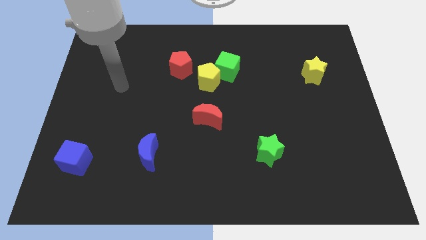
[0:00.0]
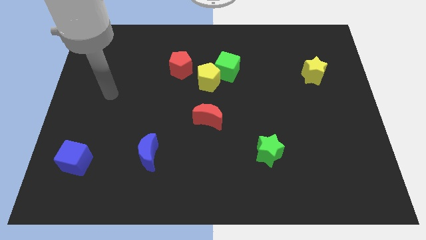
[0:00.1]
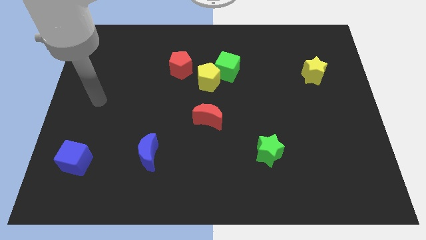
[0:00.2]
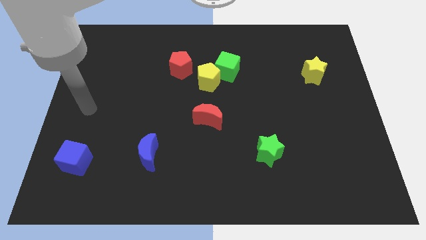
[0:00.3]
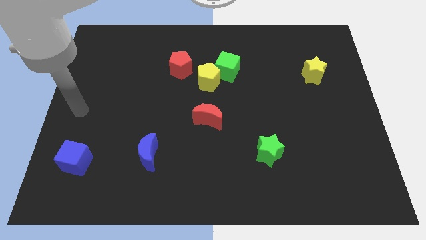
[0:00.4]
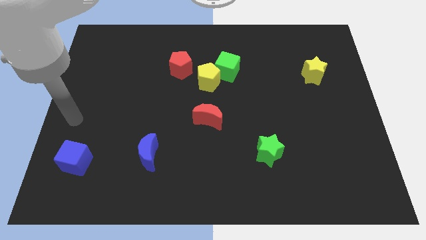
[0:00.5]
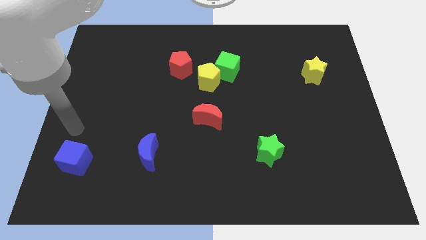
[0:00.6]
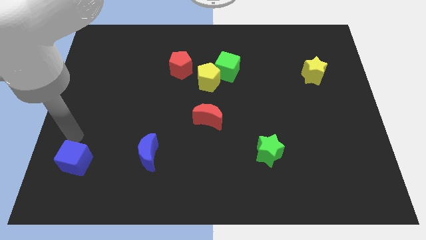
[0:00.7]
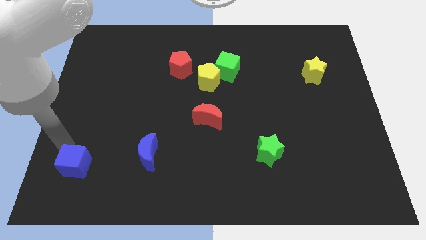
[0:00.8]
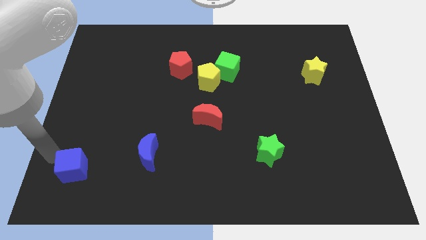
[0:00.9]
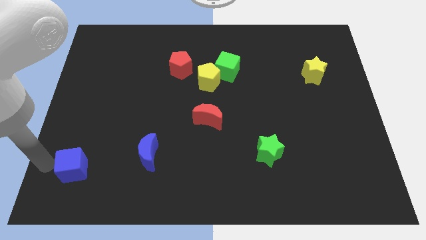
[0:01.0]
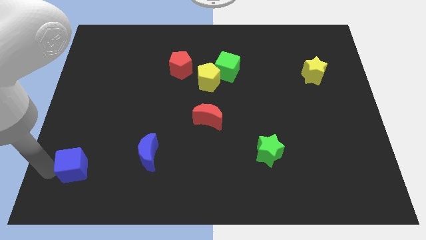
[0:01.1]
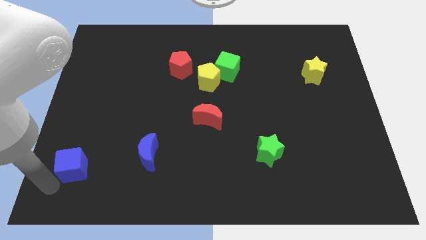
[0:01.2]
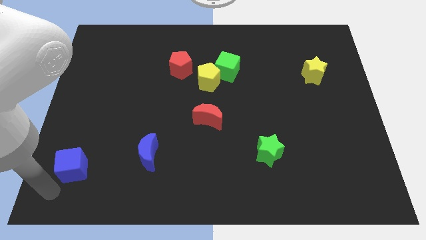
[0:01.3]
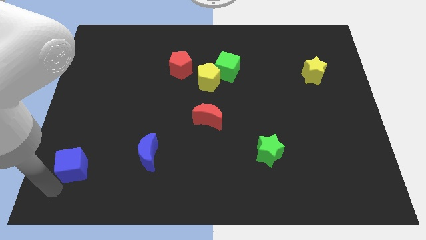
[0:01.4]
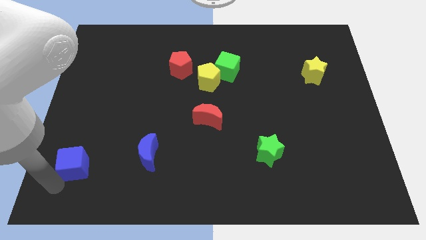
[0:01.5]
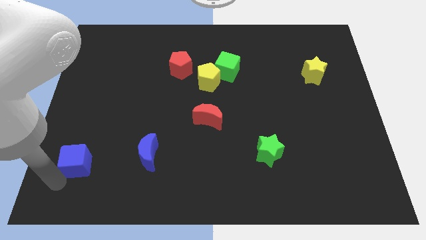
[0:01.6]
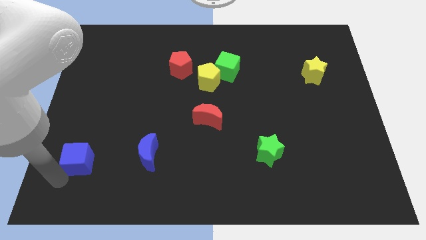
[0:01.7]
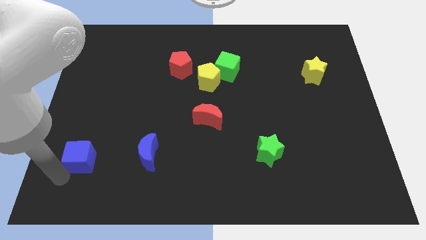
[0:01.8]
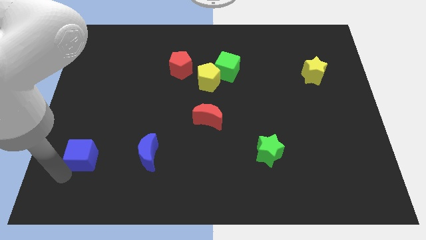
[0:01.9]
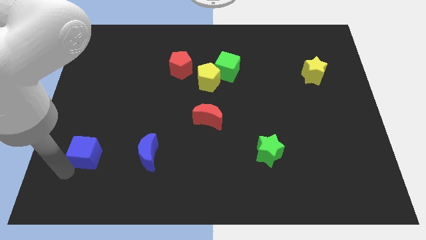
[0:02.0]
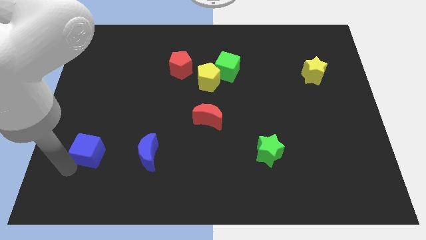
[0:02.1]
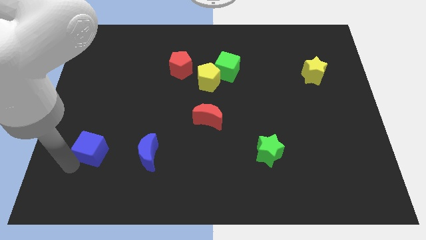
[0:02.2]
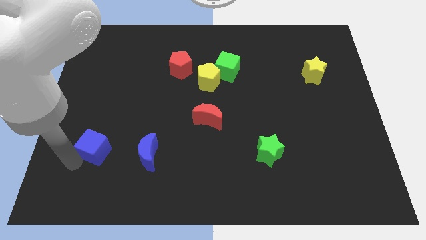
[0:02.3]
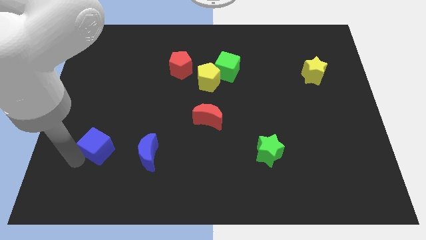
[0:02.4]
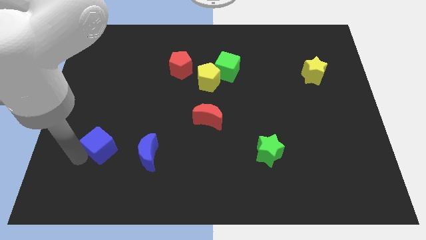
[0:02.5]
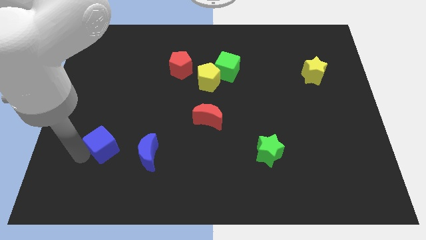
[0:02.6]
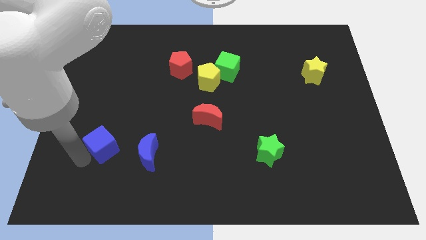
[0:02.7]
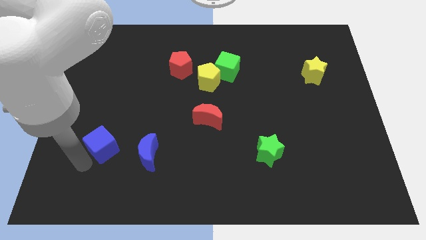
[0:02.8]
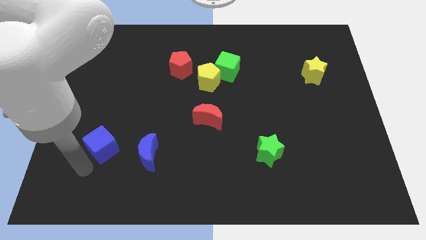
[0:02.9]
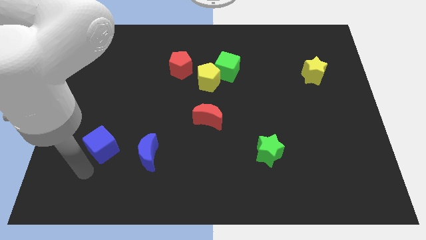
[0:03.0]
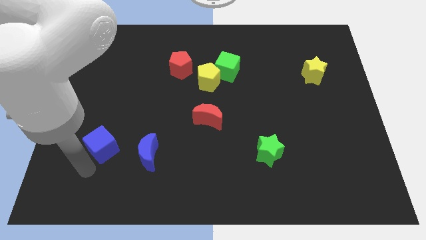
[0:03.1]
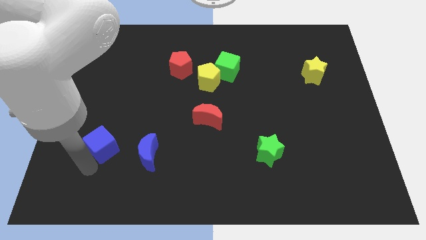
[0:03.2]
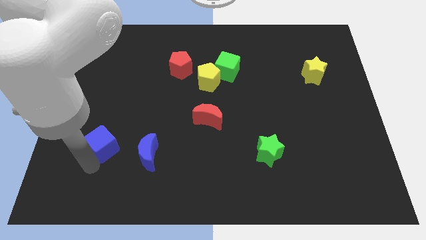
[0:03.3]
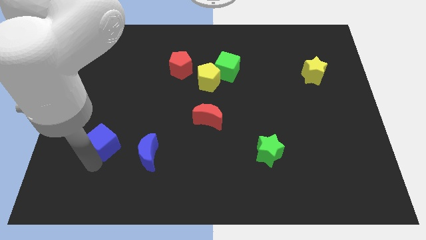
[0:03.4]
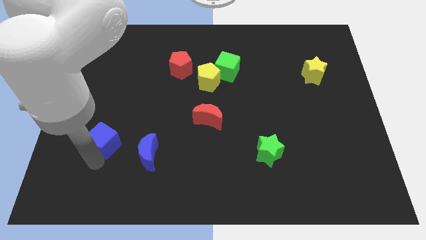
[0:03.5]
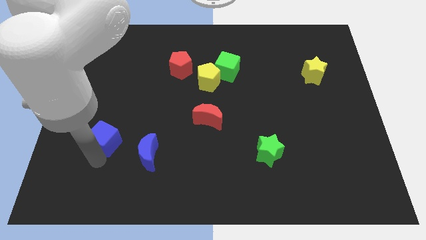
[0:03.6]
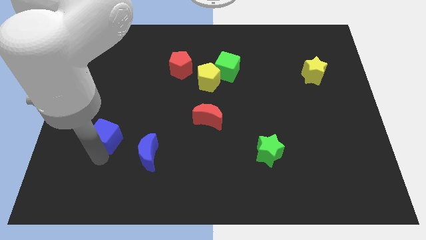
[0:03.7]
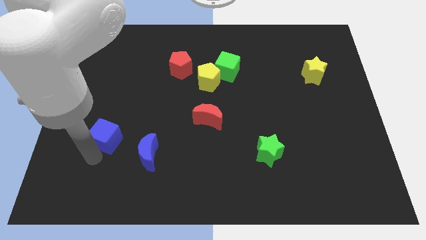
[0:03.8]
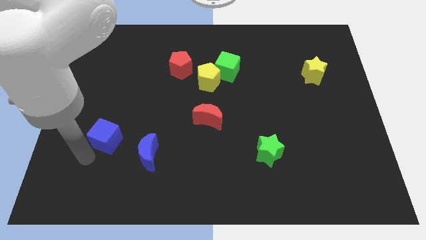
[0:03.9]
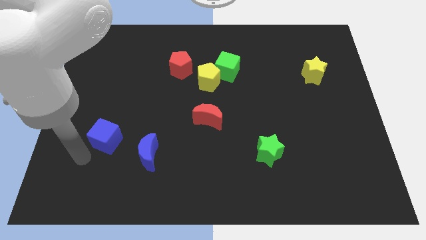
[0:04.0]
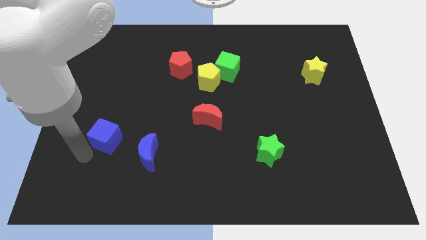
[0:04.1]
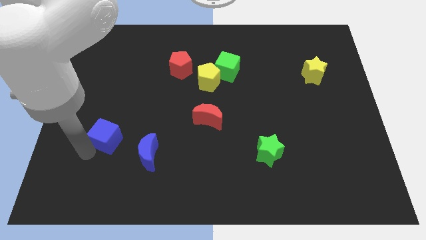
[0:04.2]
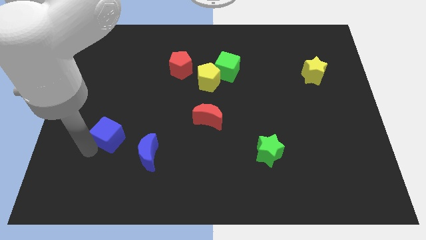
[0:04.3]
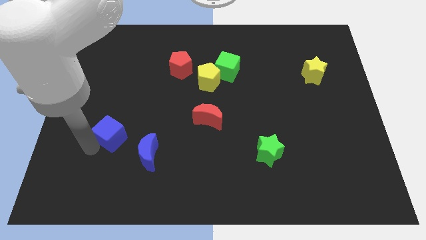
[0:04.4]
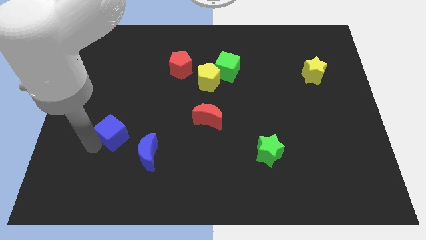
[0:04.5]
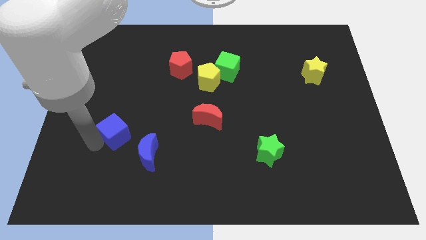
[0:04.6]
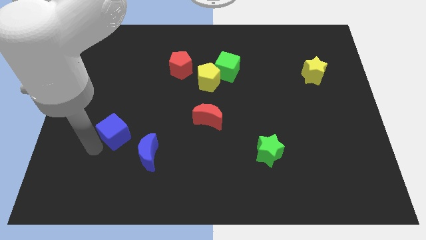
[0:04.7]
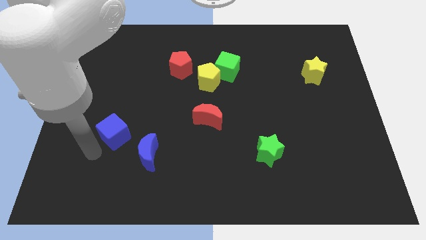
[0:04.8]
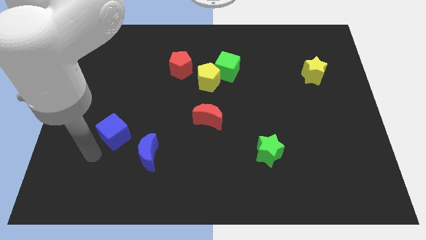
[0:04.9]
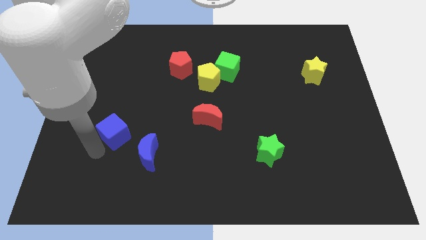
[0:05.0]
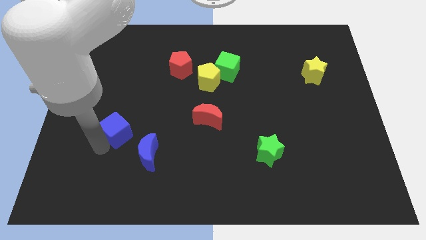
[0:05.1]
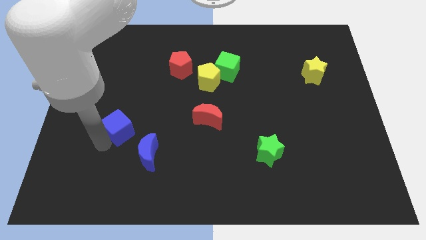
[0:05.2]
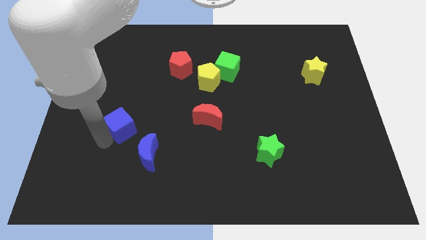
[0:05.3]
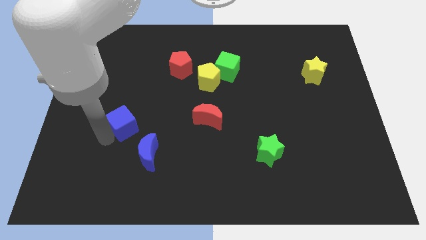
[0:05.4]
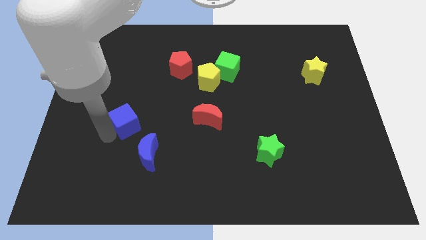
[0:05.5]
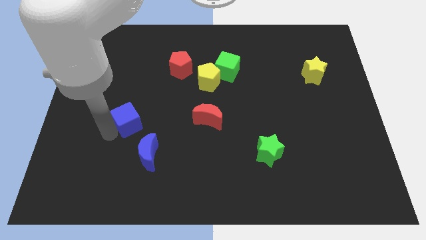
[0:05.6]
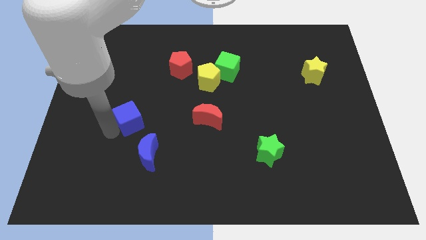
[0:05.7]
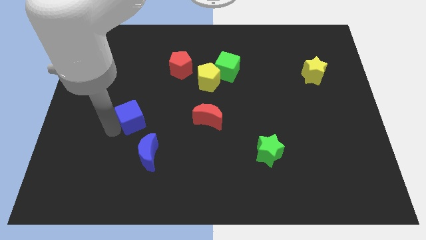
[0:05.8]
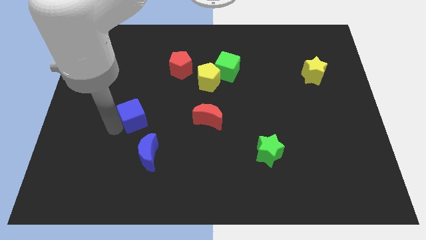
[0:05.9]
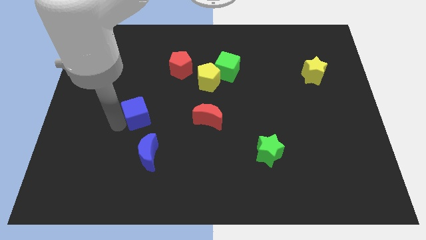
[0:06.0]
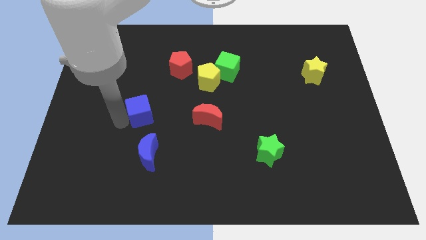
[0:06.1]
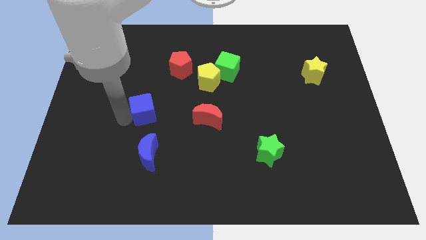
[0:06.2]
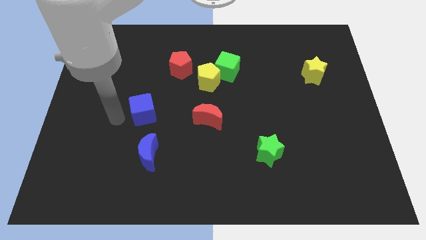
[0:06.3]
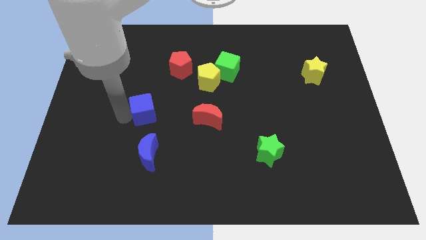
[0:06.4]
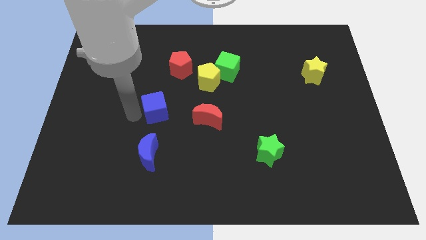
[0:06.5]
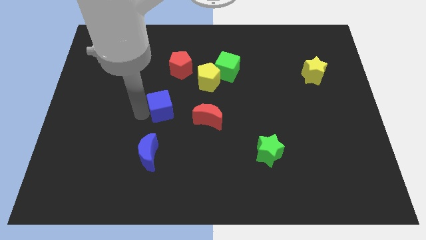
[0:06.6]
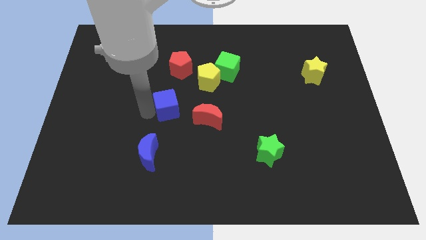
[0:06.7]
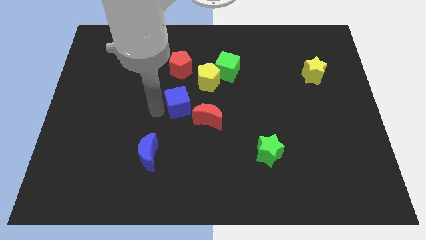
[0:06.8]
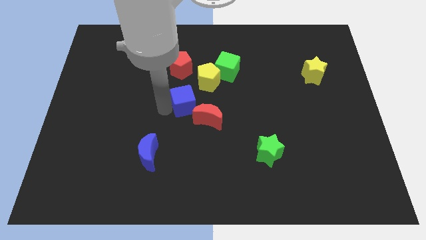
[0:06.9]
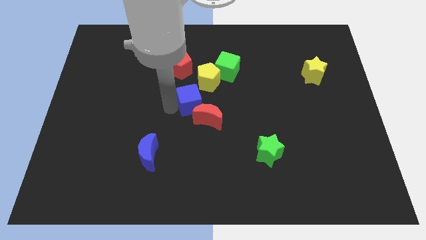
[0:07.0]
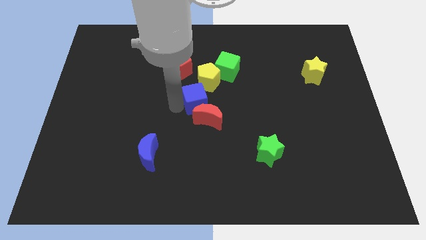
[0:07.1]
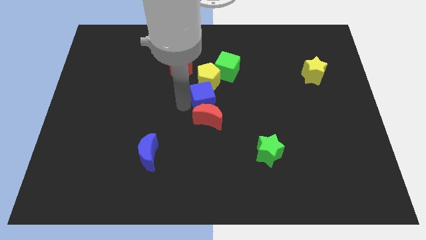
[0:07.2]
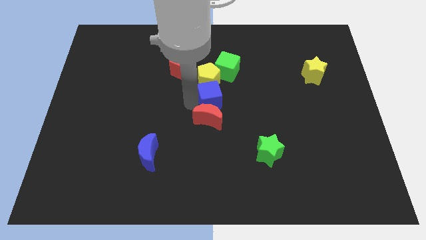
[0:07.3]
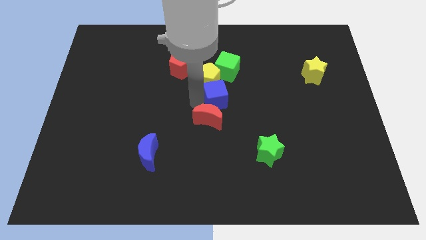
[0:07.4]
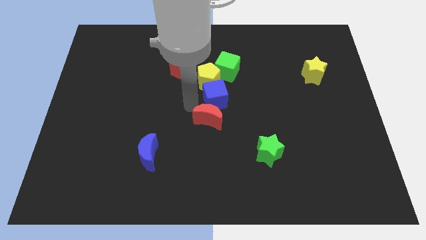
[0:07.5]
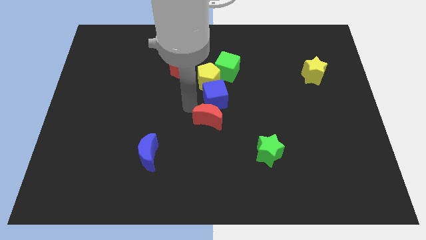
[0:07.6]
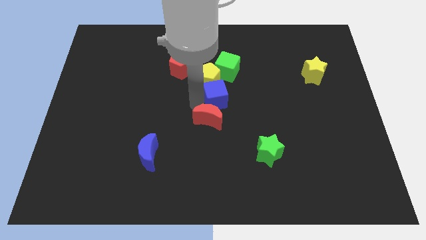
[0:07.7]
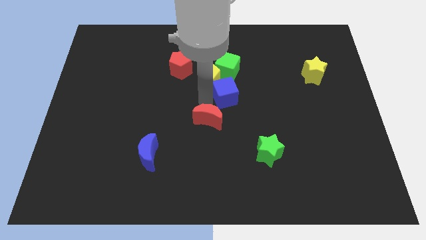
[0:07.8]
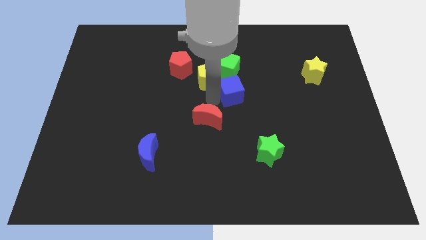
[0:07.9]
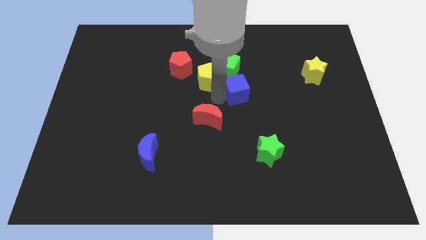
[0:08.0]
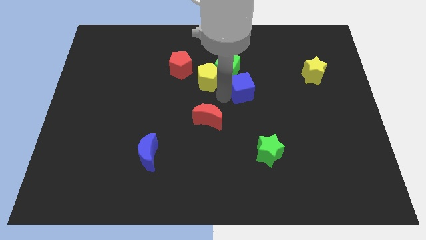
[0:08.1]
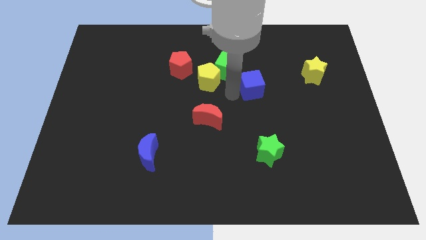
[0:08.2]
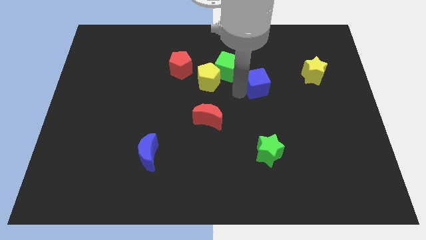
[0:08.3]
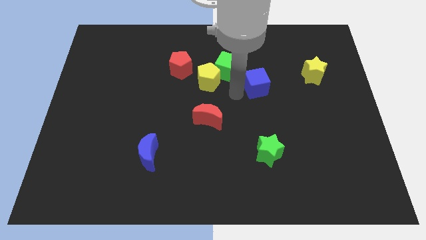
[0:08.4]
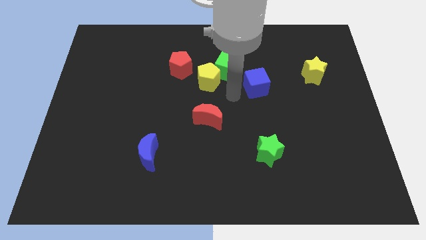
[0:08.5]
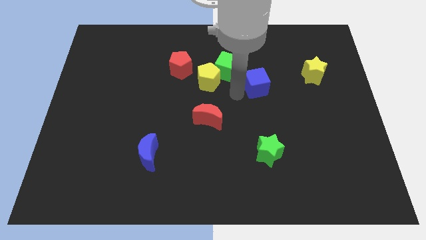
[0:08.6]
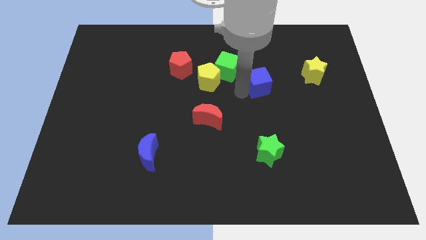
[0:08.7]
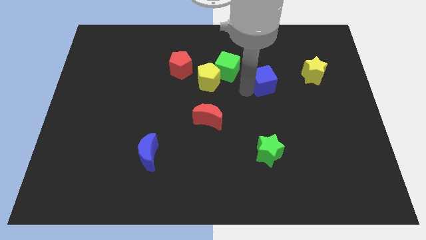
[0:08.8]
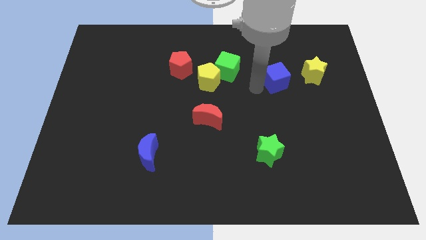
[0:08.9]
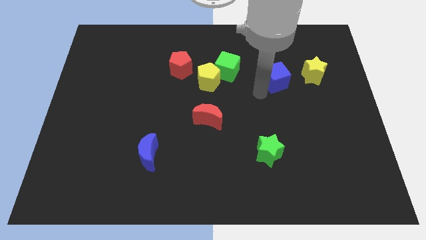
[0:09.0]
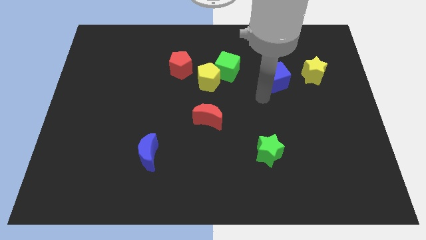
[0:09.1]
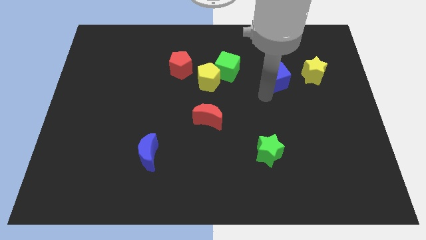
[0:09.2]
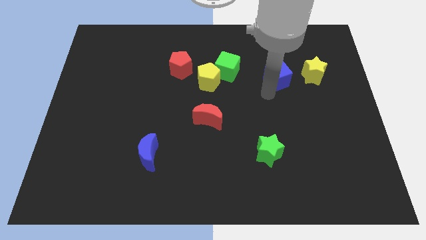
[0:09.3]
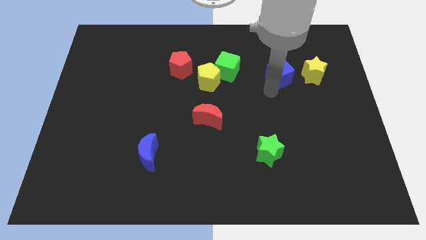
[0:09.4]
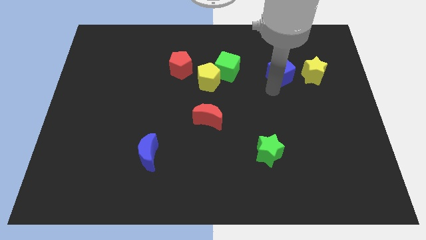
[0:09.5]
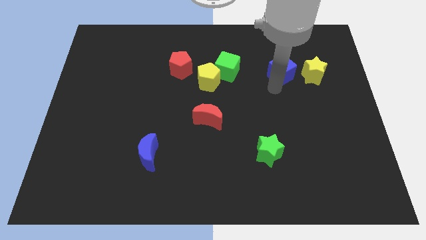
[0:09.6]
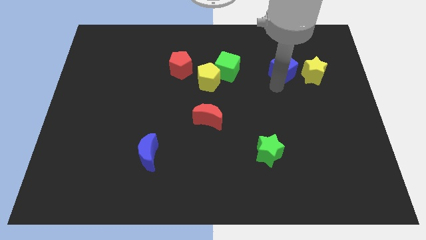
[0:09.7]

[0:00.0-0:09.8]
push the blue cube to the top left of the yellow star
